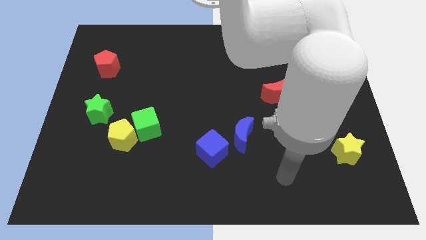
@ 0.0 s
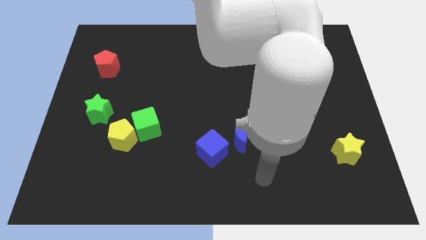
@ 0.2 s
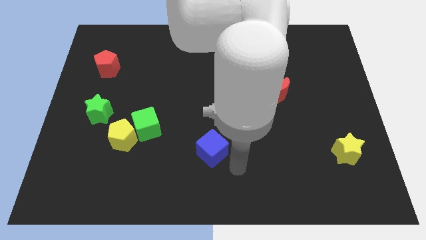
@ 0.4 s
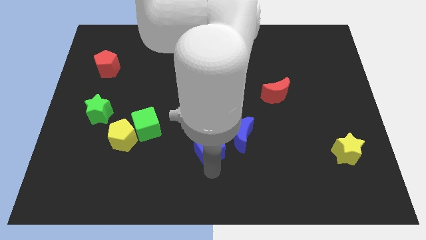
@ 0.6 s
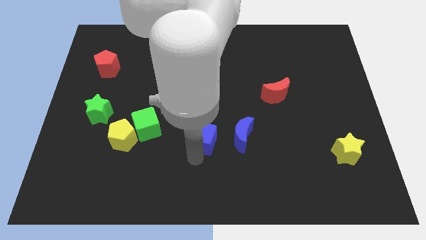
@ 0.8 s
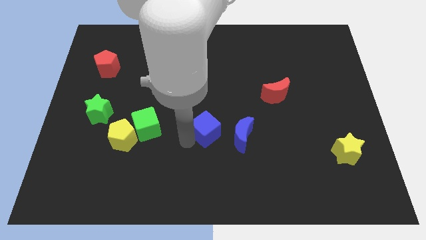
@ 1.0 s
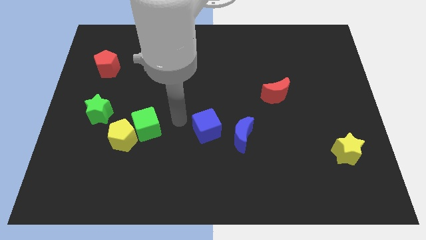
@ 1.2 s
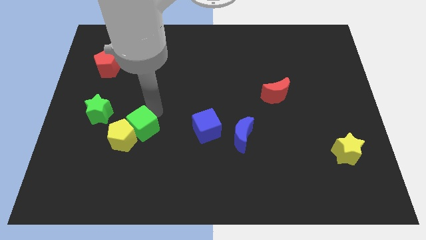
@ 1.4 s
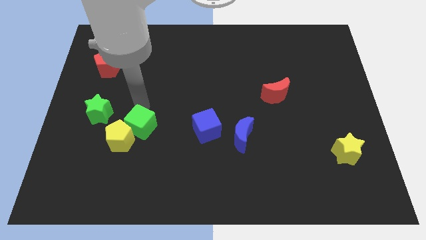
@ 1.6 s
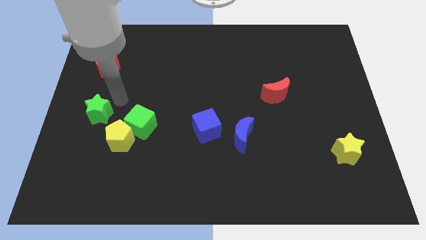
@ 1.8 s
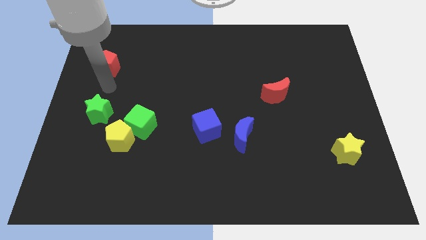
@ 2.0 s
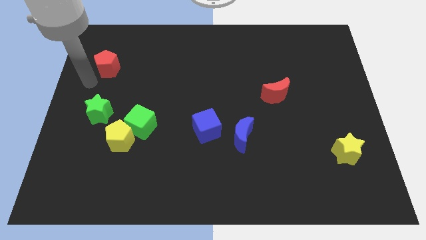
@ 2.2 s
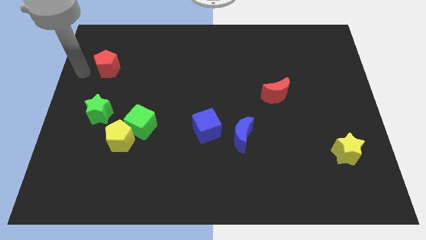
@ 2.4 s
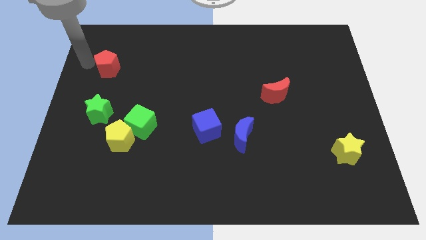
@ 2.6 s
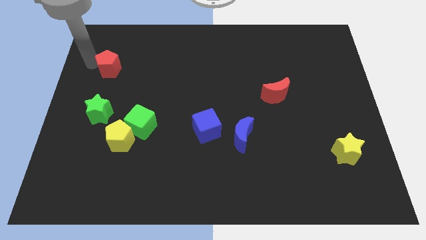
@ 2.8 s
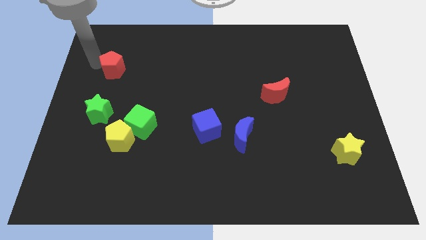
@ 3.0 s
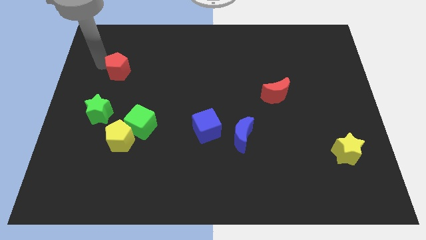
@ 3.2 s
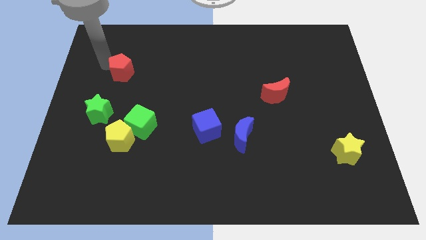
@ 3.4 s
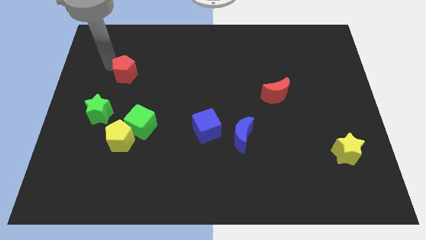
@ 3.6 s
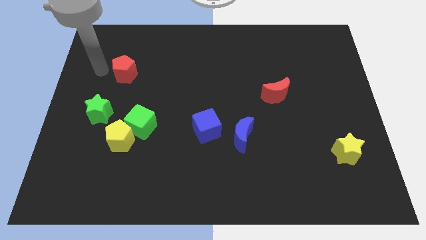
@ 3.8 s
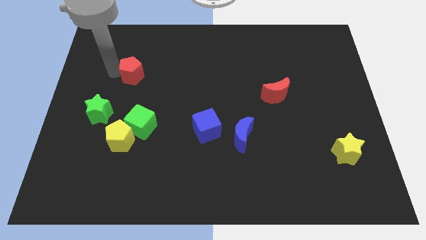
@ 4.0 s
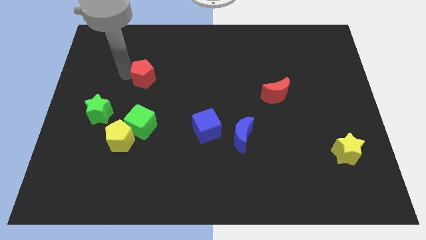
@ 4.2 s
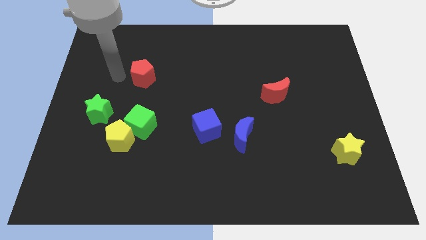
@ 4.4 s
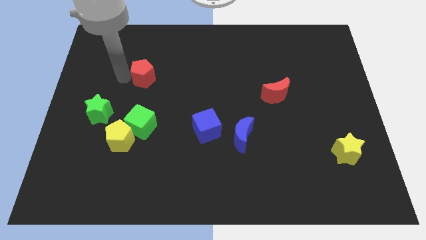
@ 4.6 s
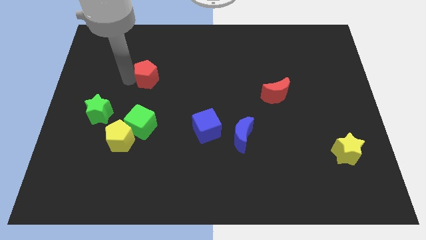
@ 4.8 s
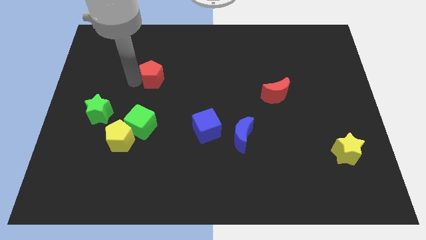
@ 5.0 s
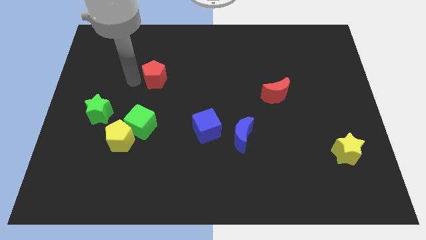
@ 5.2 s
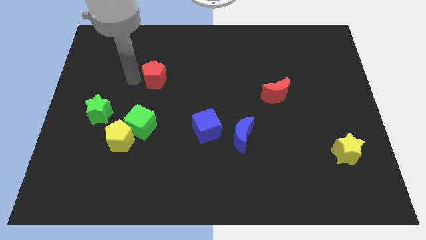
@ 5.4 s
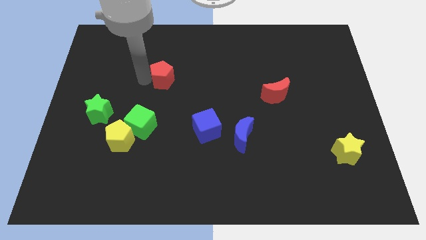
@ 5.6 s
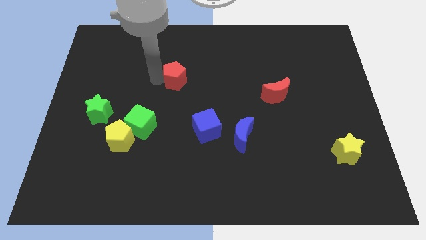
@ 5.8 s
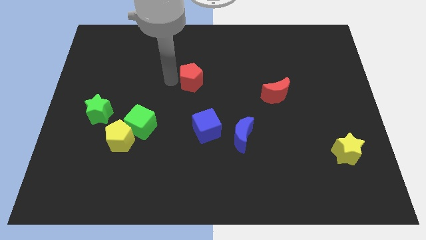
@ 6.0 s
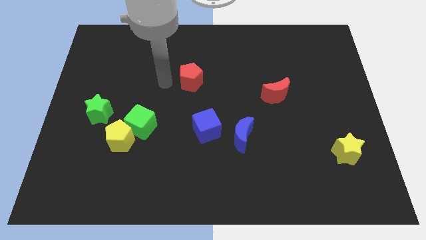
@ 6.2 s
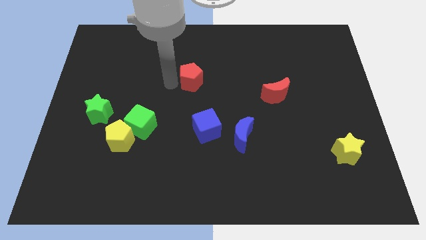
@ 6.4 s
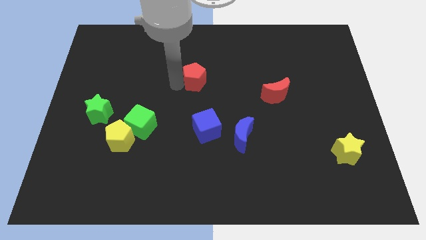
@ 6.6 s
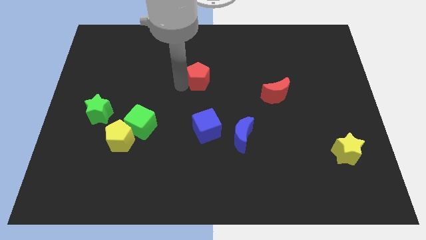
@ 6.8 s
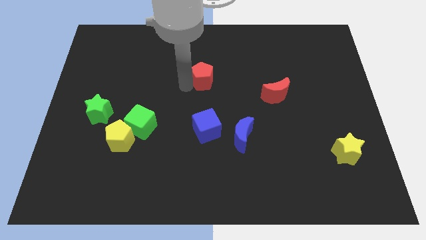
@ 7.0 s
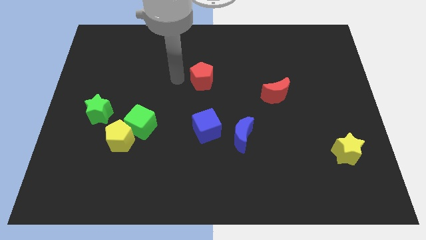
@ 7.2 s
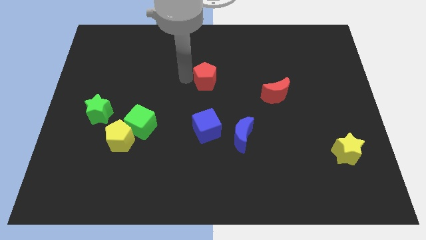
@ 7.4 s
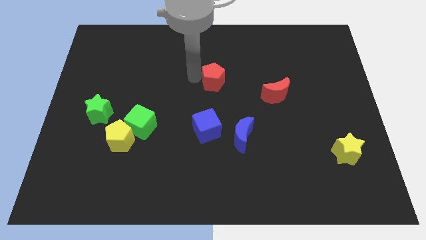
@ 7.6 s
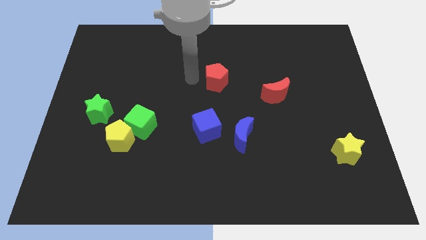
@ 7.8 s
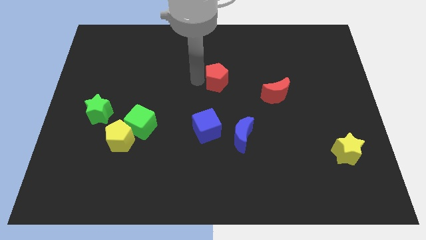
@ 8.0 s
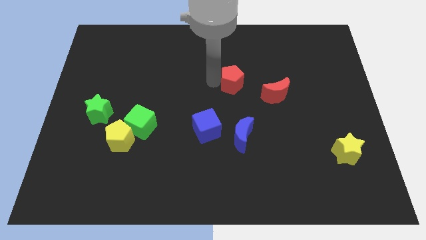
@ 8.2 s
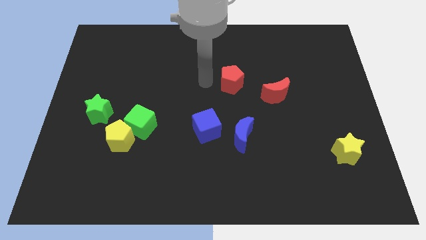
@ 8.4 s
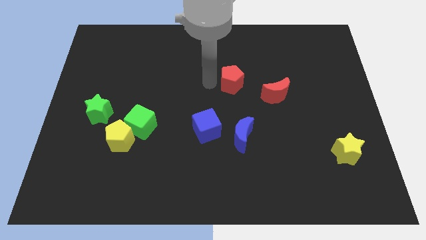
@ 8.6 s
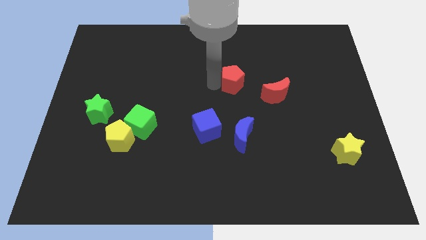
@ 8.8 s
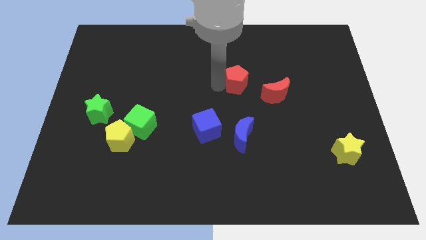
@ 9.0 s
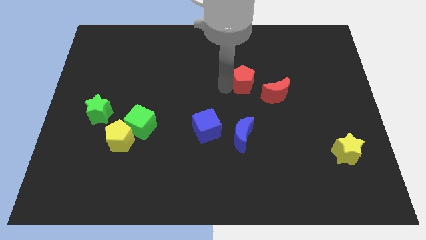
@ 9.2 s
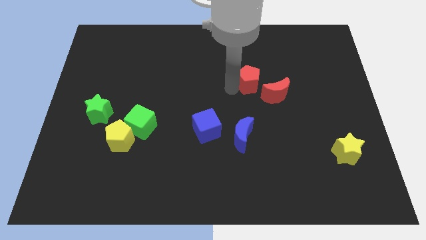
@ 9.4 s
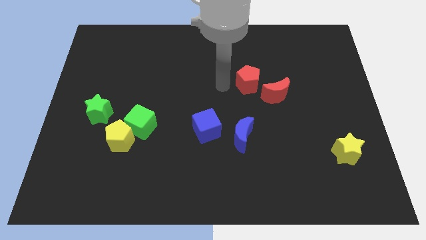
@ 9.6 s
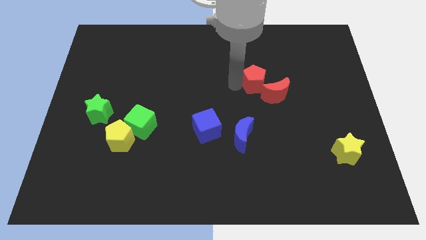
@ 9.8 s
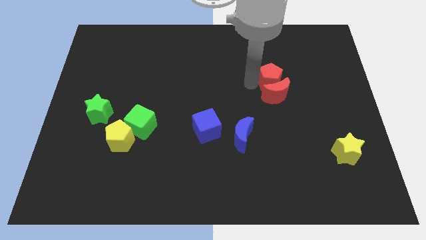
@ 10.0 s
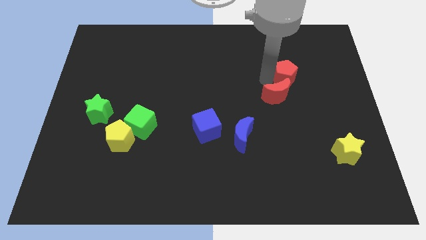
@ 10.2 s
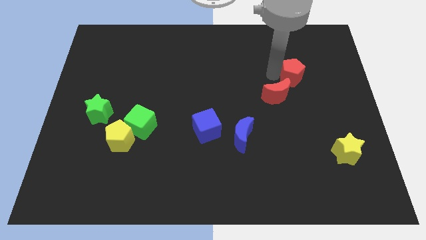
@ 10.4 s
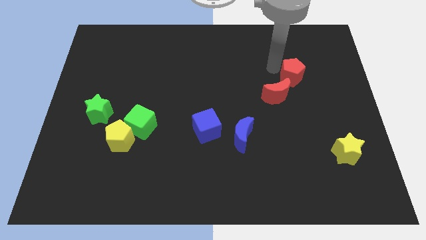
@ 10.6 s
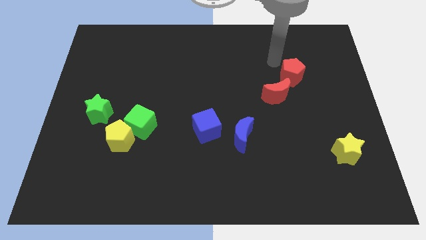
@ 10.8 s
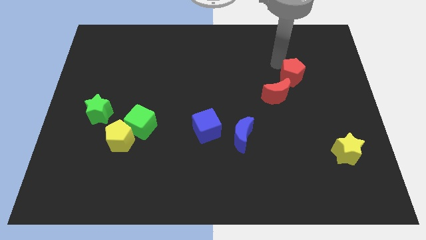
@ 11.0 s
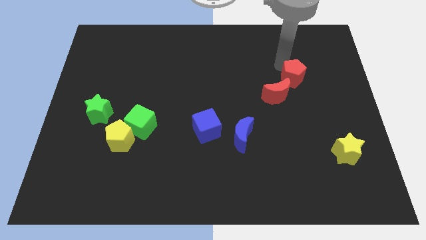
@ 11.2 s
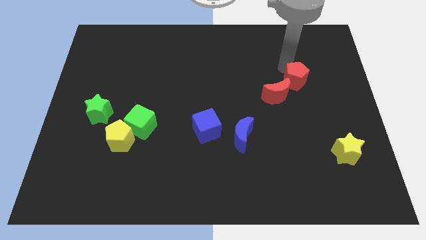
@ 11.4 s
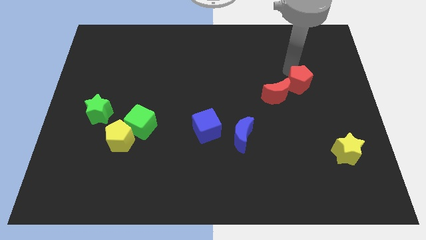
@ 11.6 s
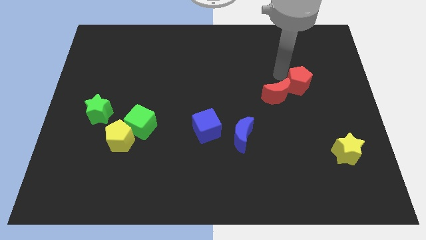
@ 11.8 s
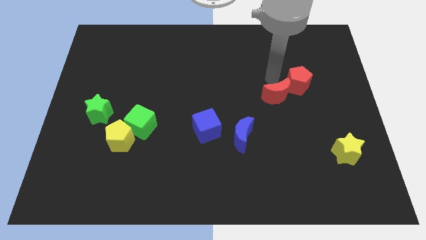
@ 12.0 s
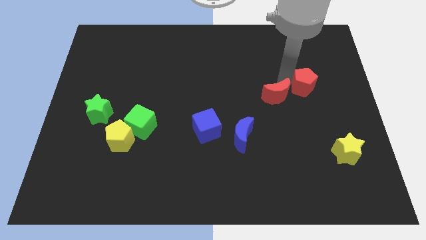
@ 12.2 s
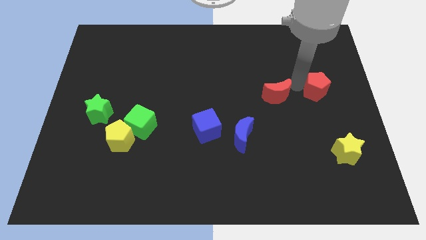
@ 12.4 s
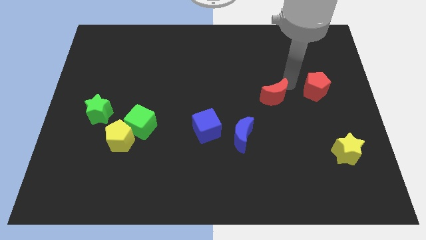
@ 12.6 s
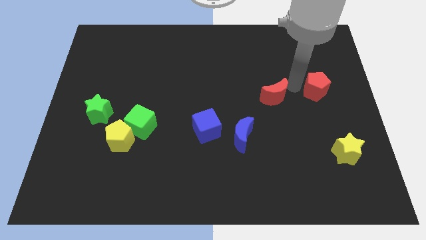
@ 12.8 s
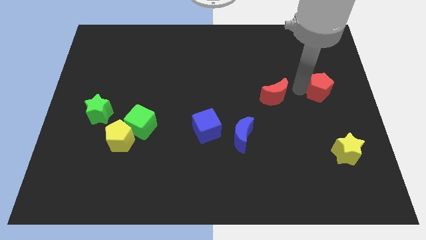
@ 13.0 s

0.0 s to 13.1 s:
push the red pentagon to the right side
